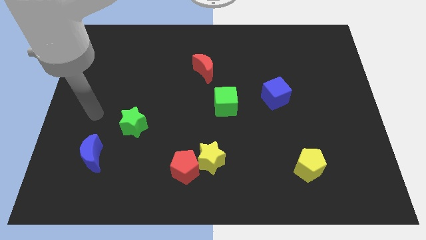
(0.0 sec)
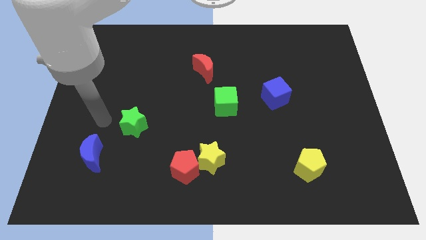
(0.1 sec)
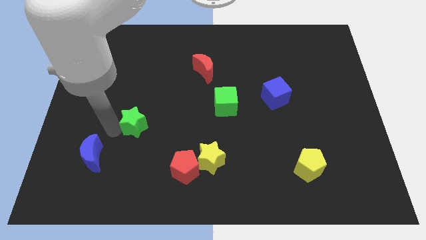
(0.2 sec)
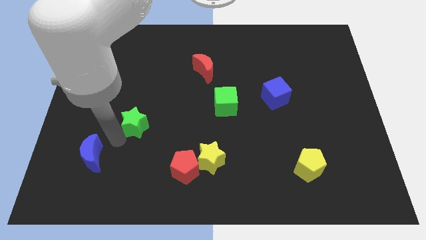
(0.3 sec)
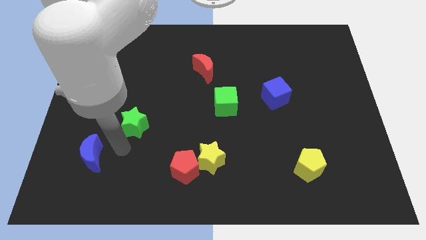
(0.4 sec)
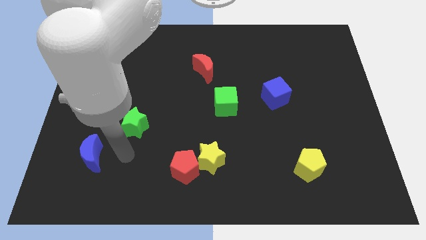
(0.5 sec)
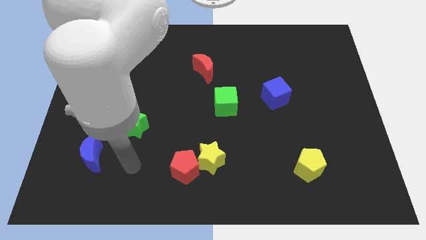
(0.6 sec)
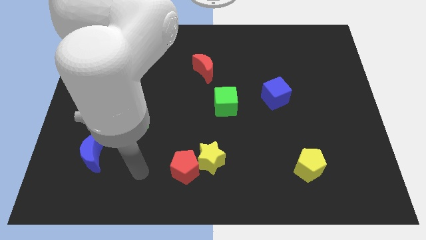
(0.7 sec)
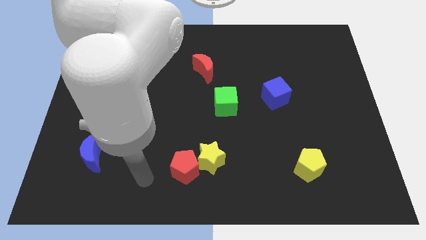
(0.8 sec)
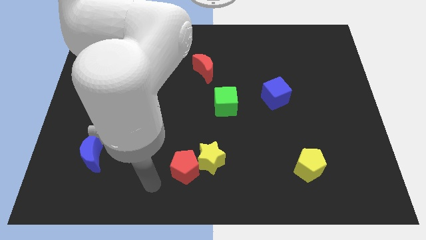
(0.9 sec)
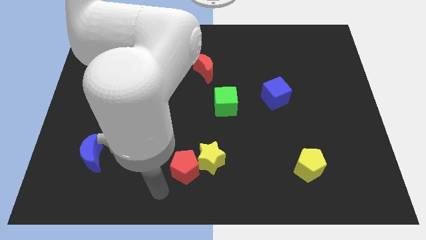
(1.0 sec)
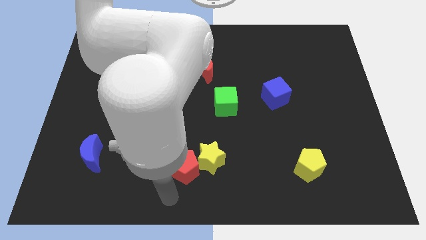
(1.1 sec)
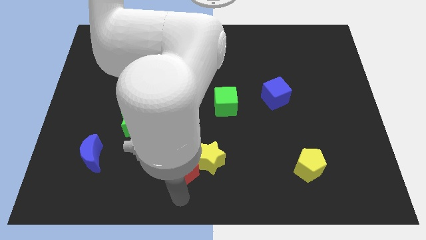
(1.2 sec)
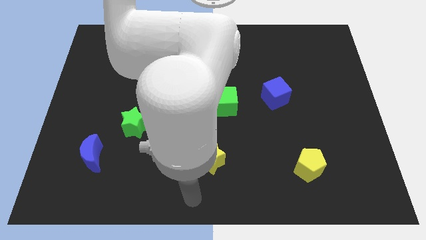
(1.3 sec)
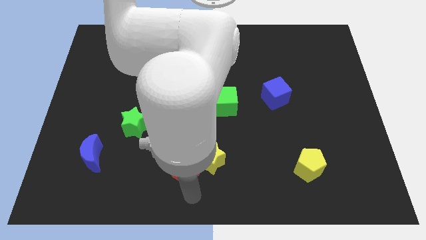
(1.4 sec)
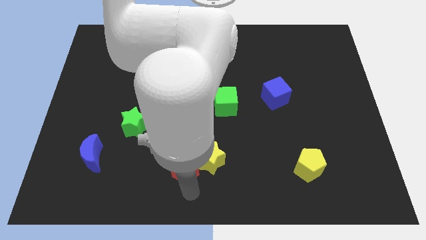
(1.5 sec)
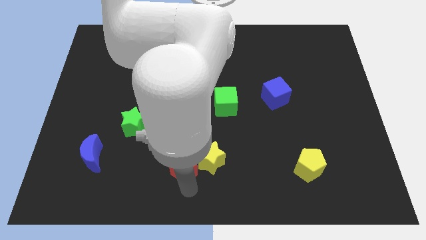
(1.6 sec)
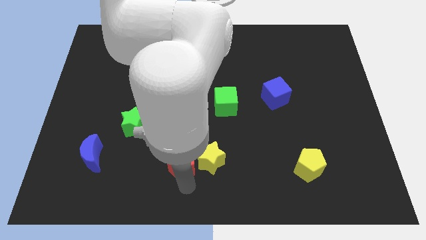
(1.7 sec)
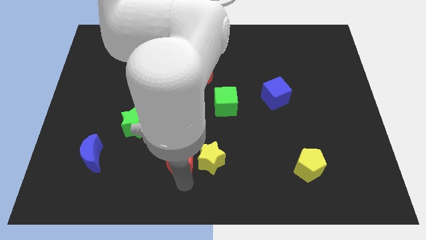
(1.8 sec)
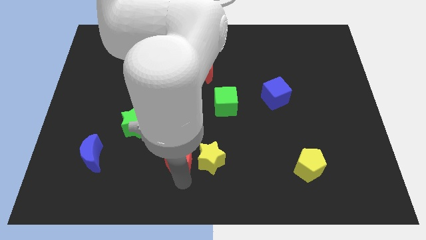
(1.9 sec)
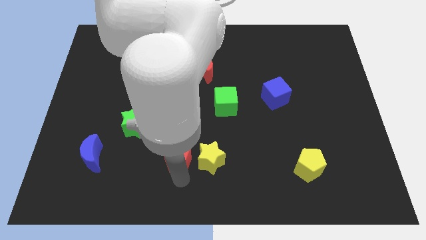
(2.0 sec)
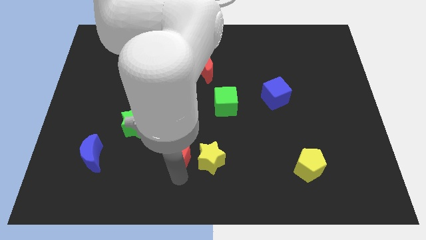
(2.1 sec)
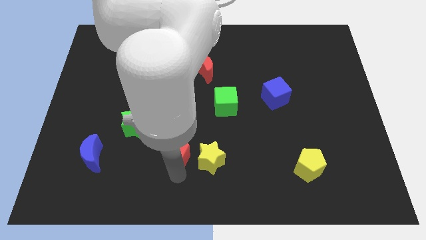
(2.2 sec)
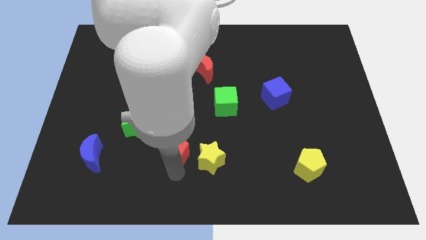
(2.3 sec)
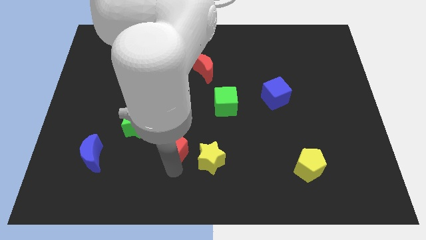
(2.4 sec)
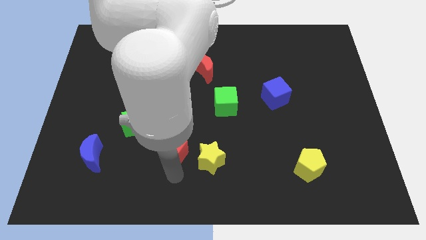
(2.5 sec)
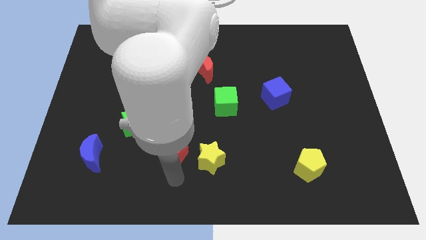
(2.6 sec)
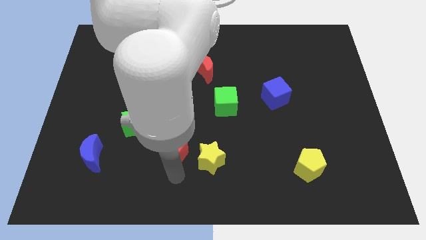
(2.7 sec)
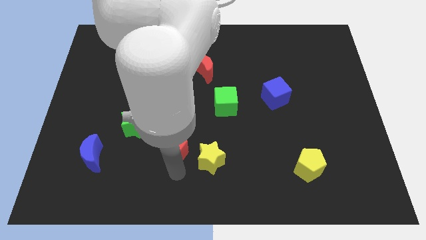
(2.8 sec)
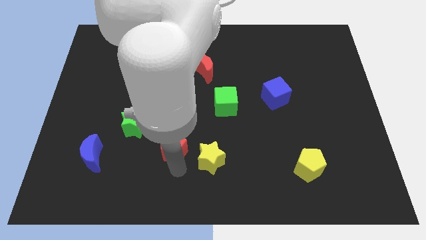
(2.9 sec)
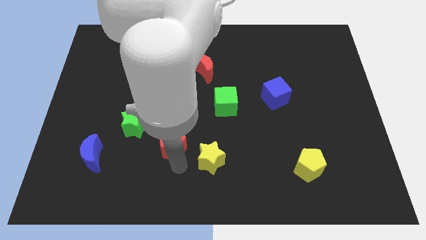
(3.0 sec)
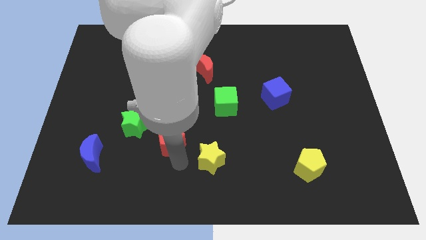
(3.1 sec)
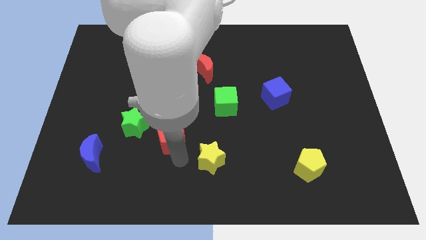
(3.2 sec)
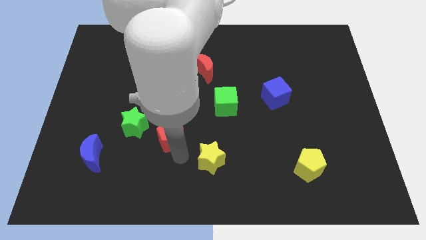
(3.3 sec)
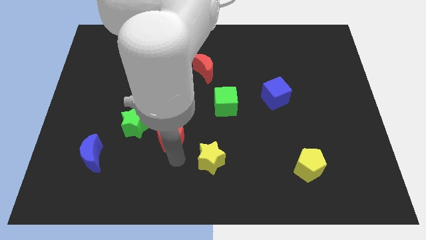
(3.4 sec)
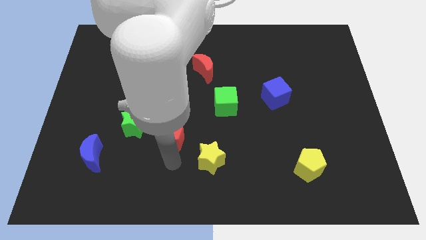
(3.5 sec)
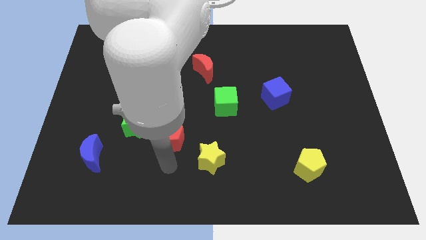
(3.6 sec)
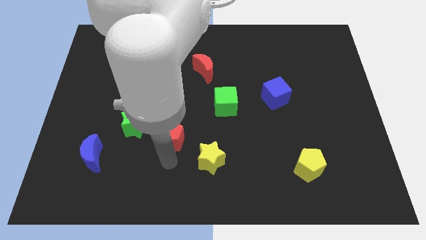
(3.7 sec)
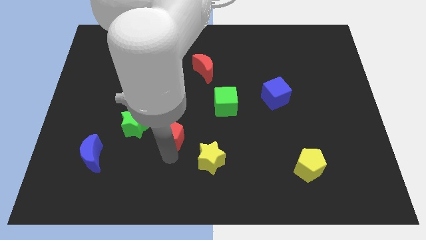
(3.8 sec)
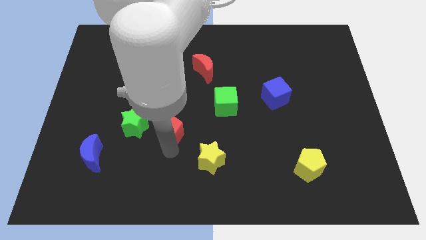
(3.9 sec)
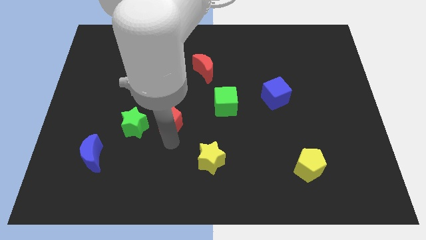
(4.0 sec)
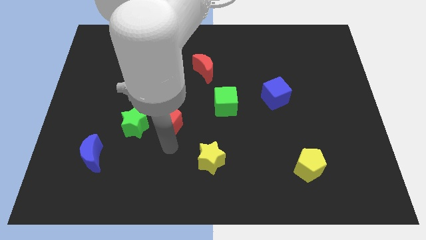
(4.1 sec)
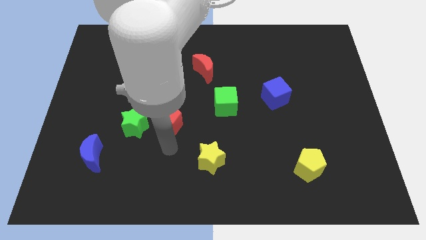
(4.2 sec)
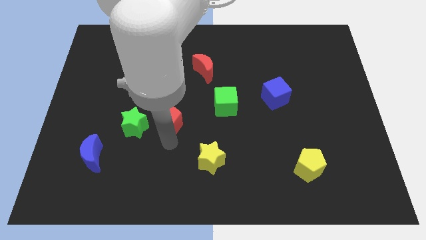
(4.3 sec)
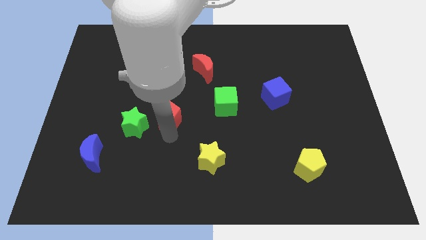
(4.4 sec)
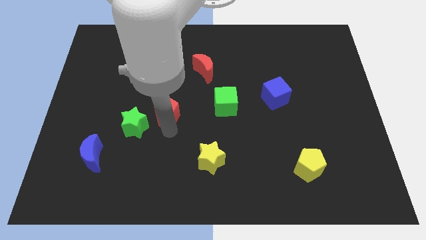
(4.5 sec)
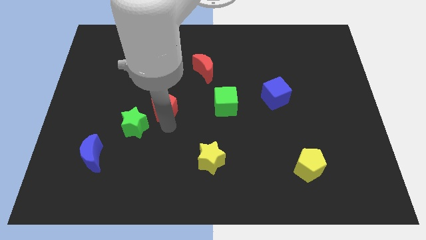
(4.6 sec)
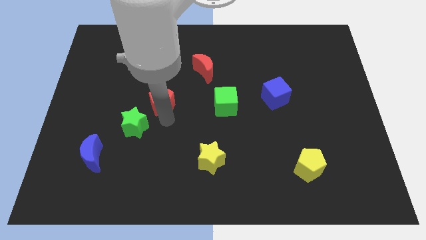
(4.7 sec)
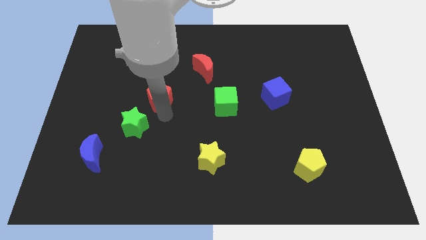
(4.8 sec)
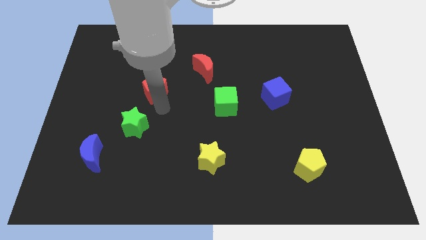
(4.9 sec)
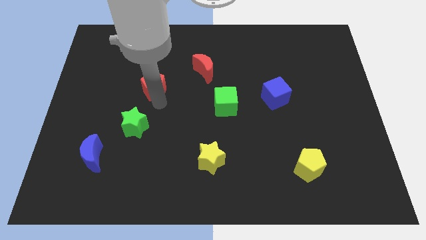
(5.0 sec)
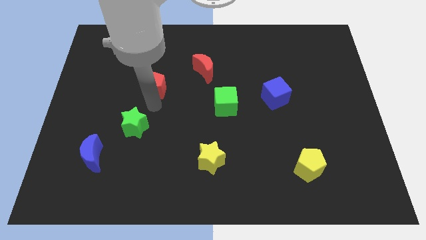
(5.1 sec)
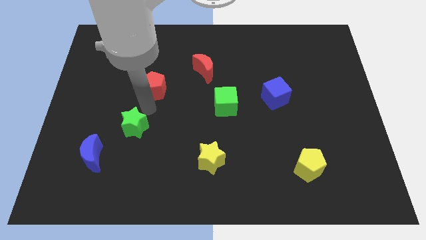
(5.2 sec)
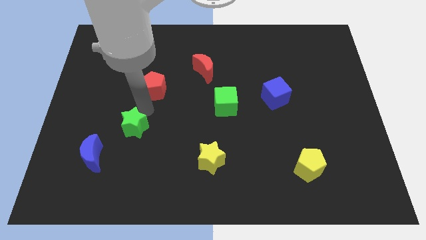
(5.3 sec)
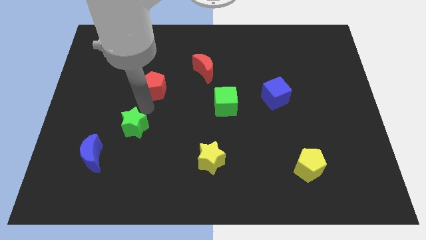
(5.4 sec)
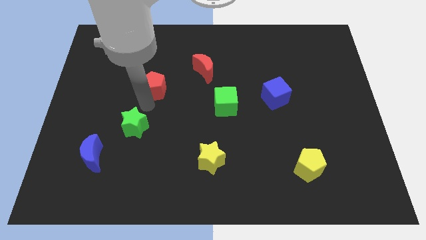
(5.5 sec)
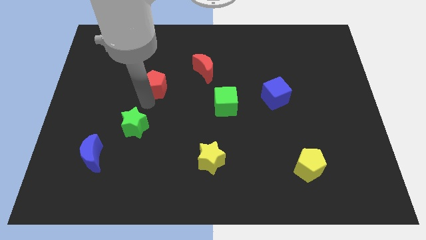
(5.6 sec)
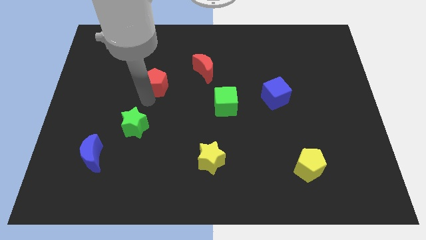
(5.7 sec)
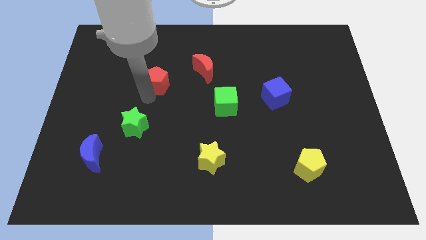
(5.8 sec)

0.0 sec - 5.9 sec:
put the red pentagon to the left side of the red moon

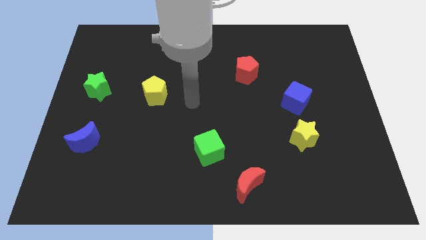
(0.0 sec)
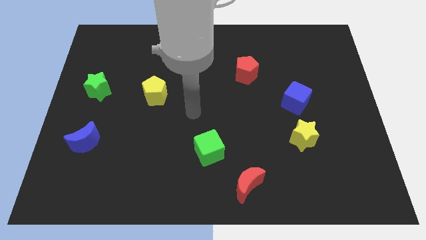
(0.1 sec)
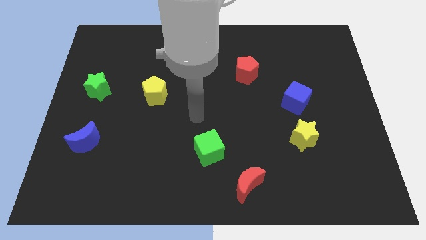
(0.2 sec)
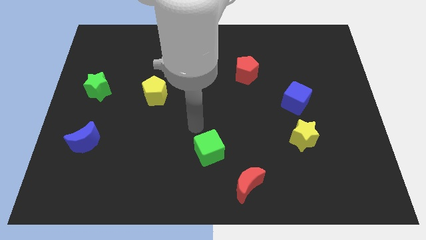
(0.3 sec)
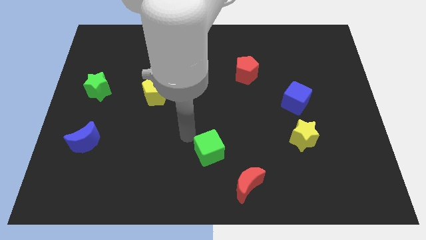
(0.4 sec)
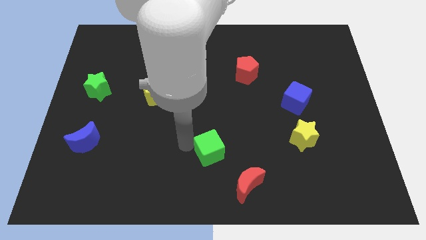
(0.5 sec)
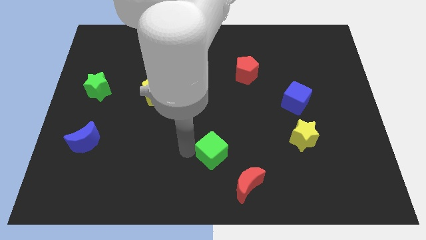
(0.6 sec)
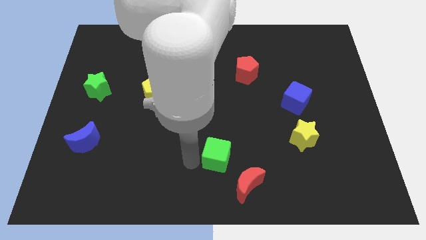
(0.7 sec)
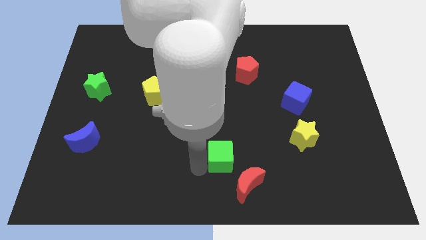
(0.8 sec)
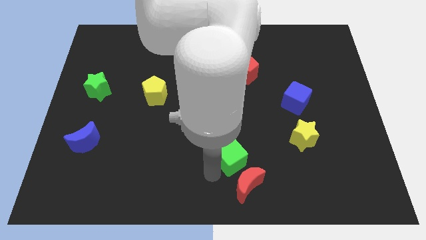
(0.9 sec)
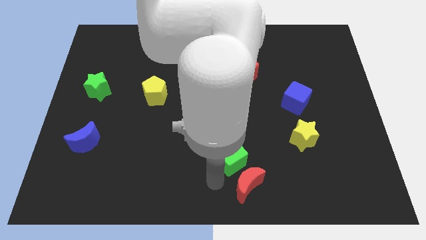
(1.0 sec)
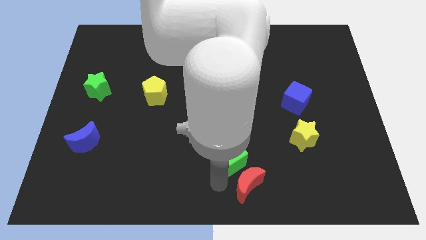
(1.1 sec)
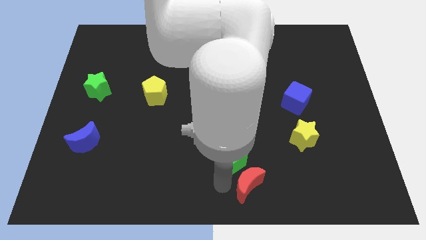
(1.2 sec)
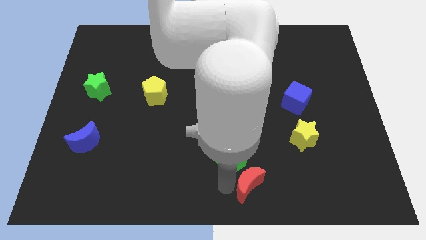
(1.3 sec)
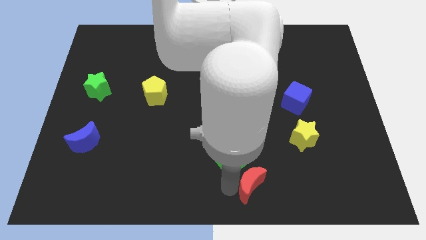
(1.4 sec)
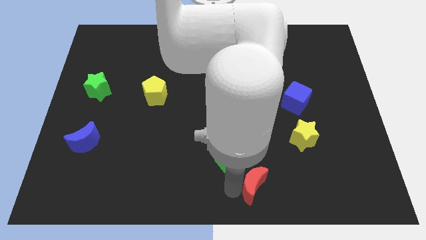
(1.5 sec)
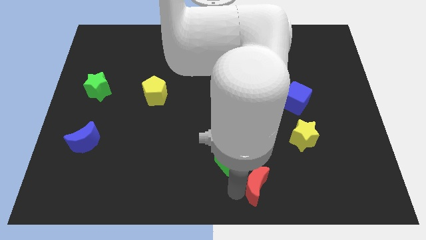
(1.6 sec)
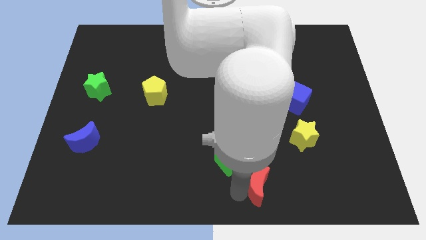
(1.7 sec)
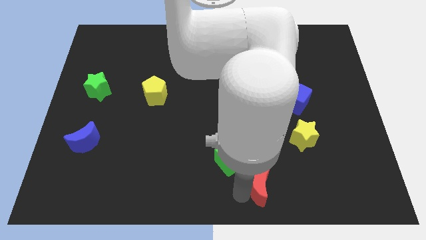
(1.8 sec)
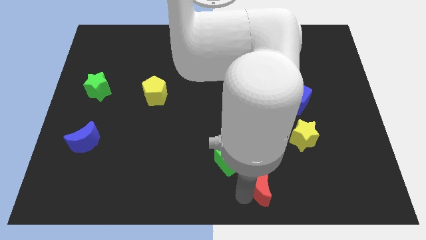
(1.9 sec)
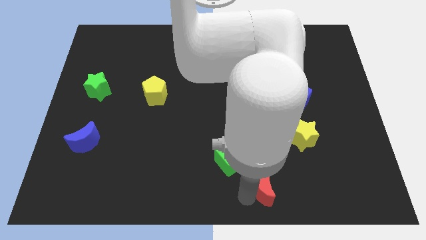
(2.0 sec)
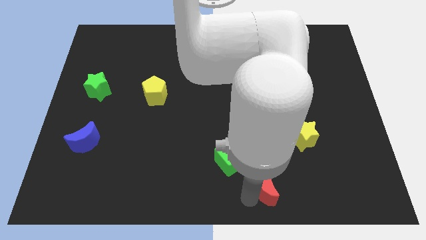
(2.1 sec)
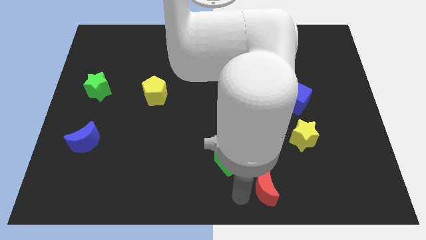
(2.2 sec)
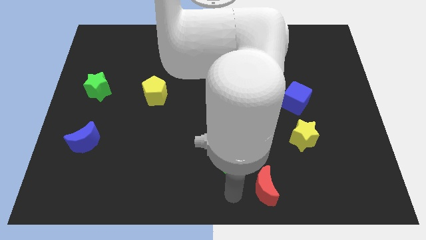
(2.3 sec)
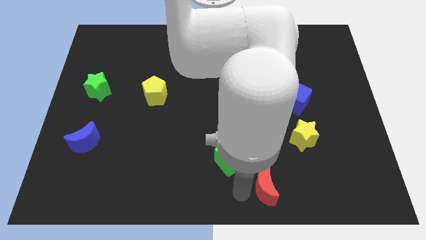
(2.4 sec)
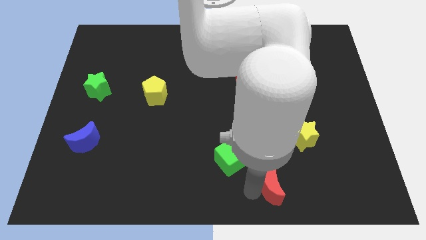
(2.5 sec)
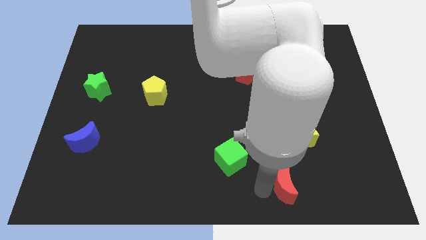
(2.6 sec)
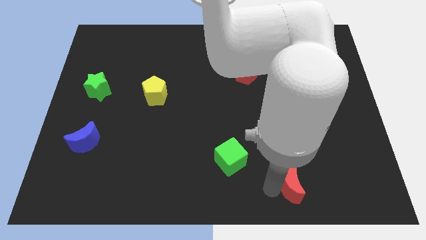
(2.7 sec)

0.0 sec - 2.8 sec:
put the red moon below the yellow star
